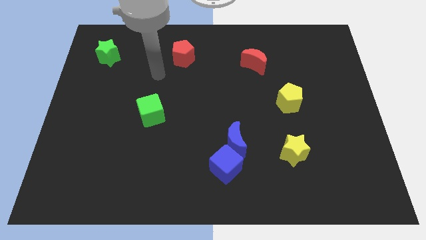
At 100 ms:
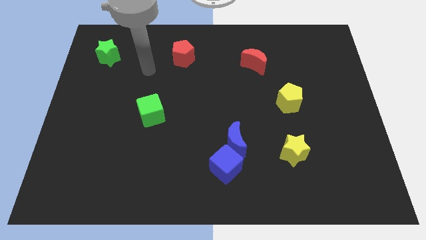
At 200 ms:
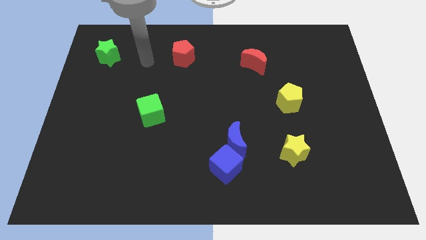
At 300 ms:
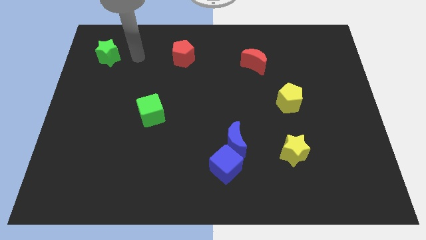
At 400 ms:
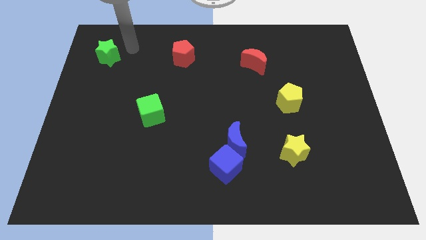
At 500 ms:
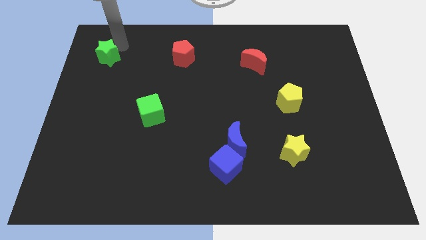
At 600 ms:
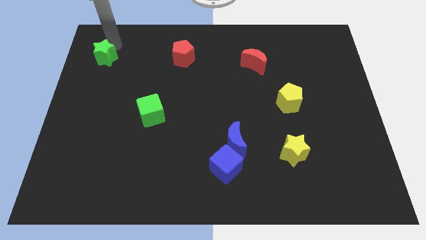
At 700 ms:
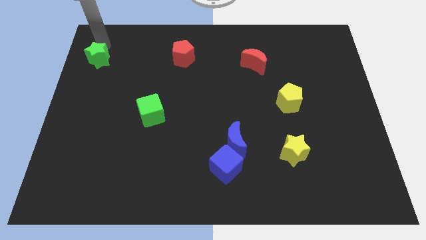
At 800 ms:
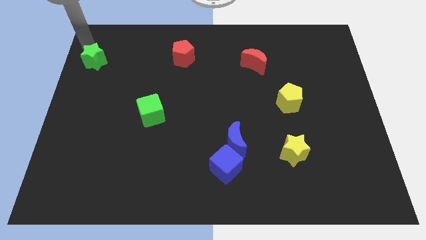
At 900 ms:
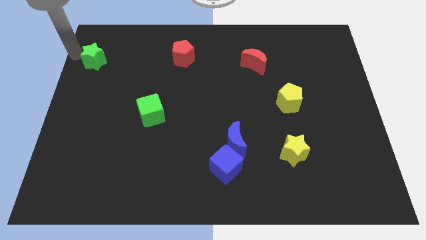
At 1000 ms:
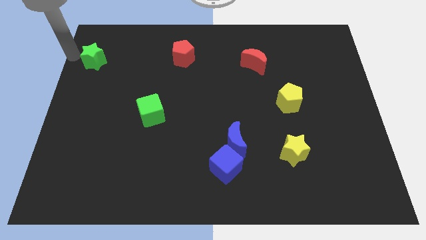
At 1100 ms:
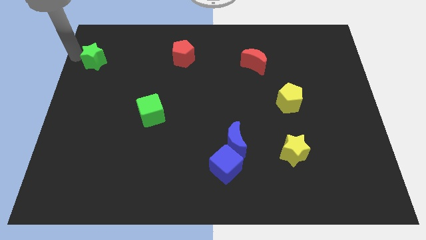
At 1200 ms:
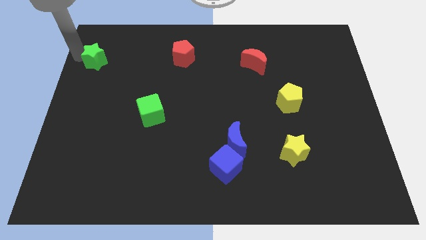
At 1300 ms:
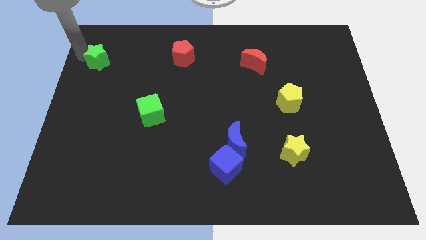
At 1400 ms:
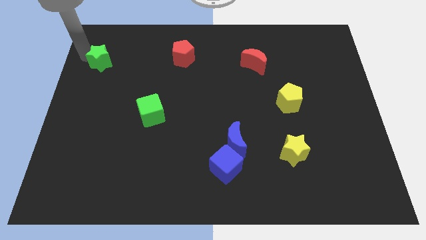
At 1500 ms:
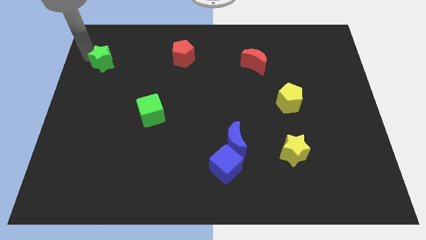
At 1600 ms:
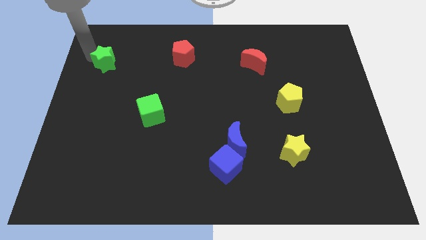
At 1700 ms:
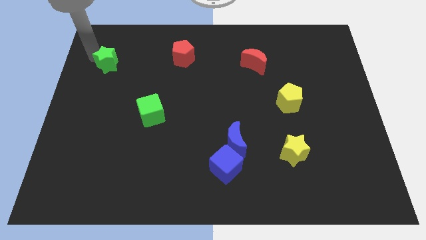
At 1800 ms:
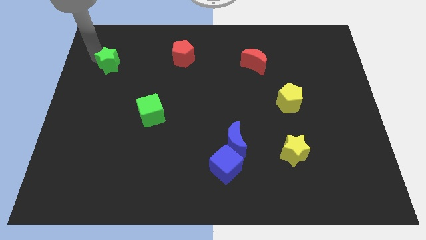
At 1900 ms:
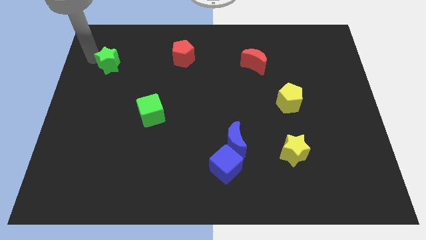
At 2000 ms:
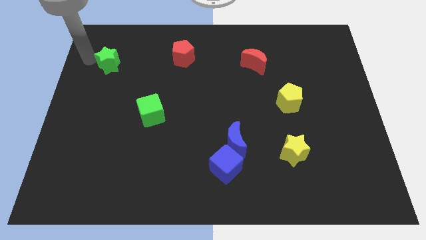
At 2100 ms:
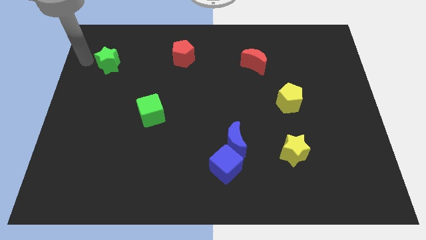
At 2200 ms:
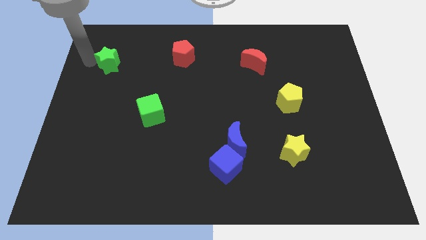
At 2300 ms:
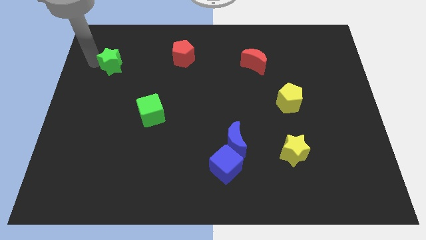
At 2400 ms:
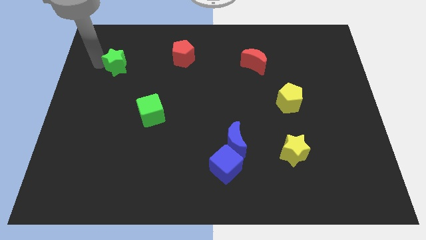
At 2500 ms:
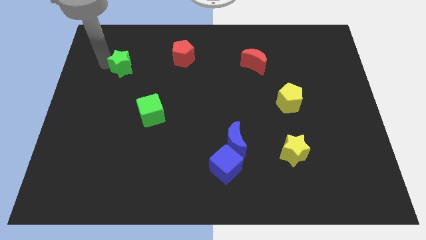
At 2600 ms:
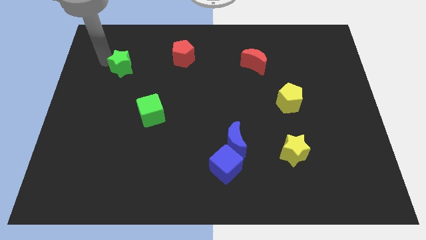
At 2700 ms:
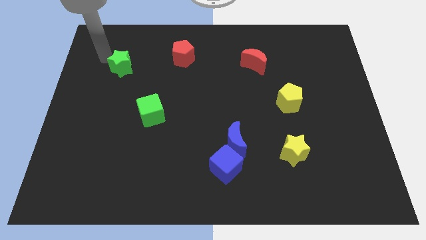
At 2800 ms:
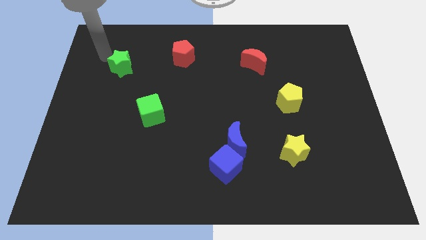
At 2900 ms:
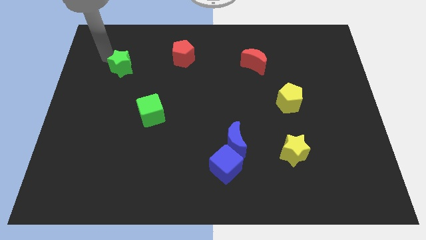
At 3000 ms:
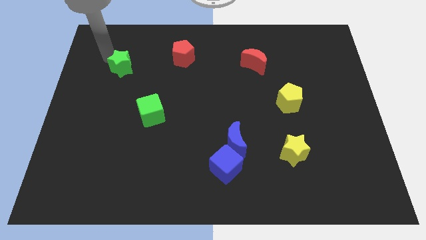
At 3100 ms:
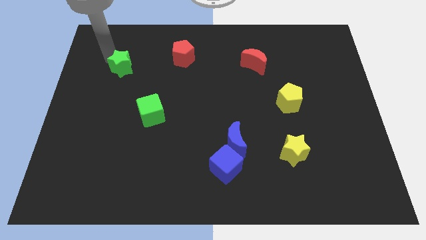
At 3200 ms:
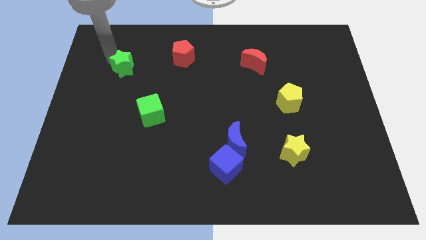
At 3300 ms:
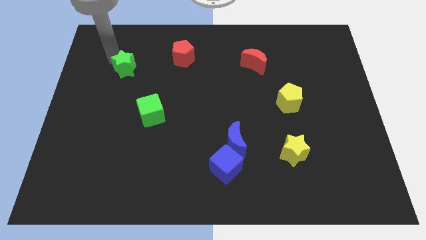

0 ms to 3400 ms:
slide the green star a little diagonally down and to the right

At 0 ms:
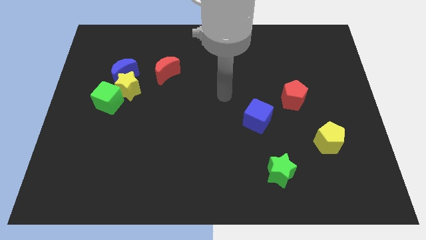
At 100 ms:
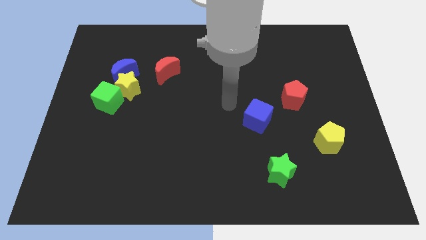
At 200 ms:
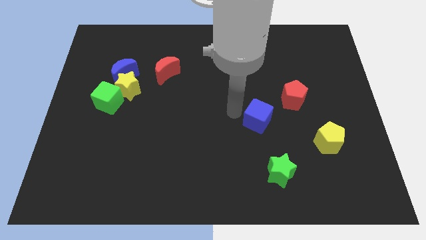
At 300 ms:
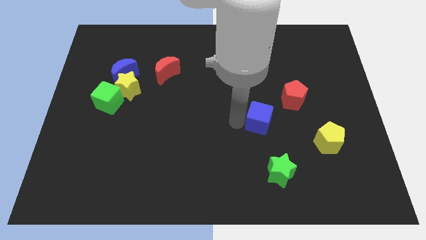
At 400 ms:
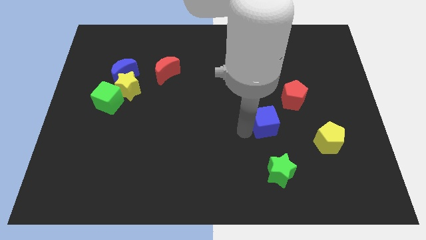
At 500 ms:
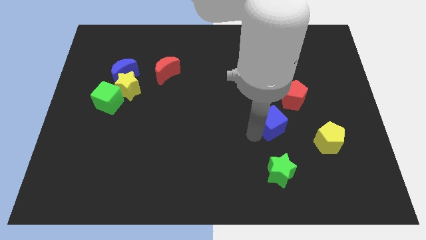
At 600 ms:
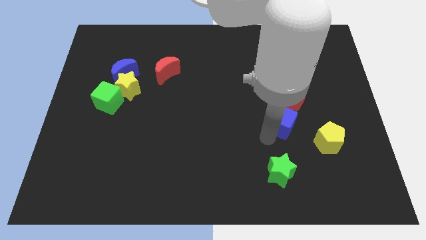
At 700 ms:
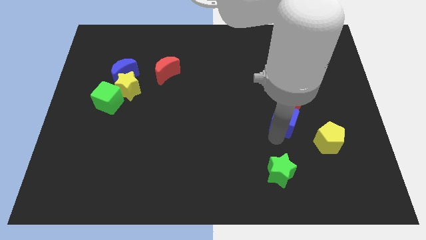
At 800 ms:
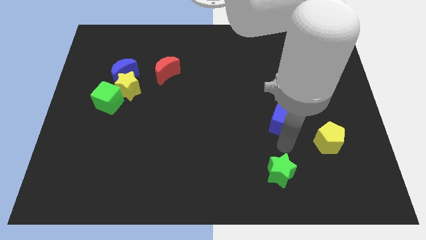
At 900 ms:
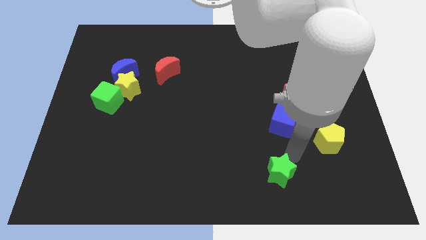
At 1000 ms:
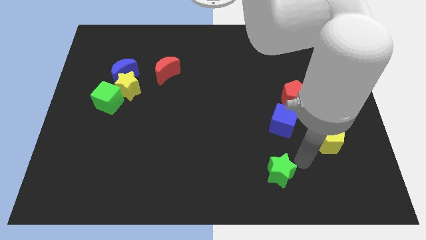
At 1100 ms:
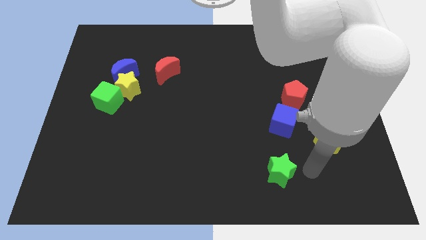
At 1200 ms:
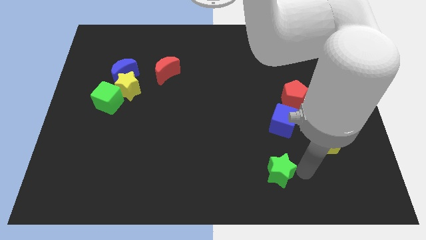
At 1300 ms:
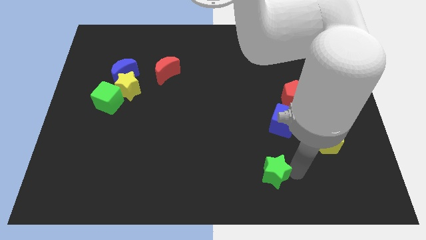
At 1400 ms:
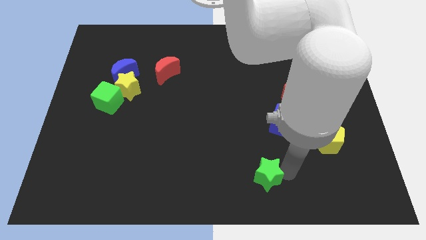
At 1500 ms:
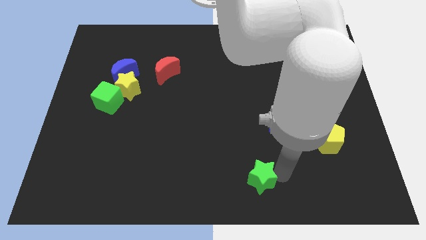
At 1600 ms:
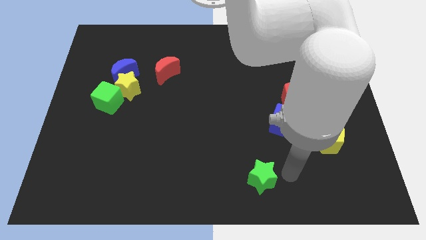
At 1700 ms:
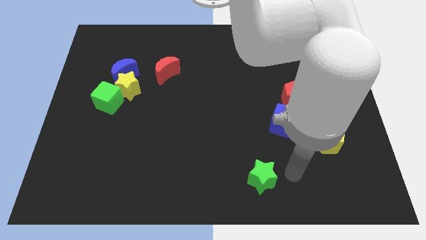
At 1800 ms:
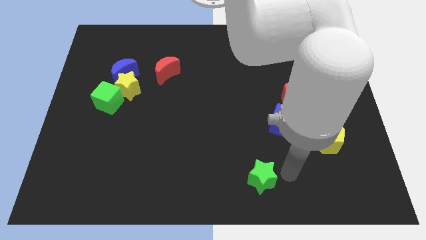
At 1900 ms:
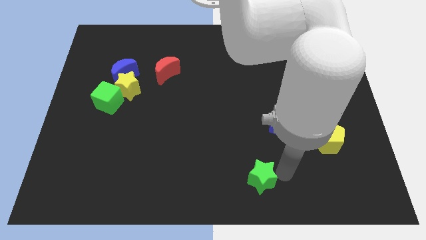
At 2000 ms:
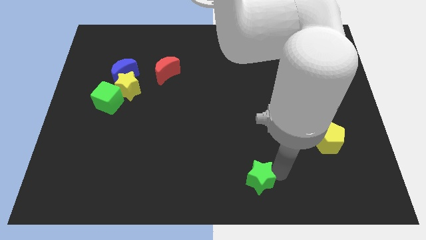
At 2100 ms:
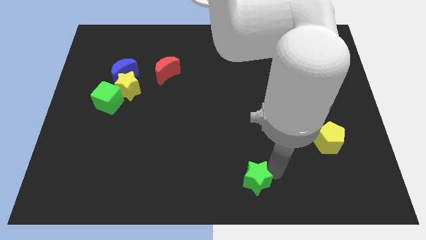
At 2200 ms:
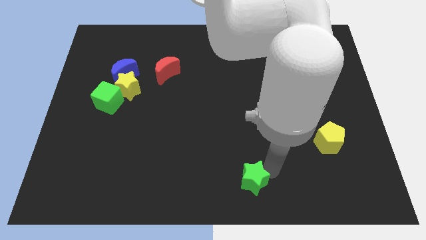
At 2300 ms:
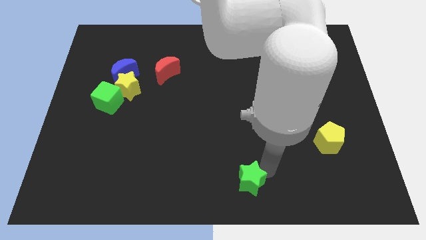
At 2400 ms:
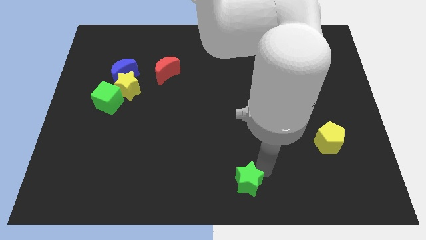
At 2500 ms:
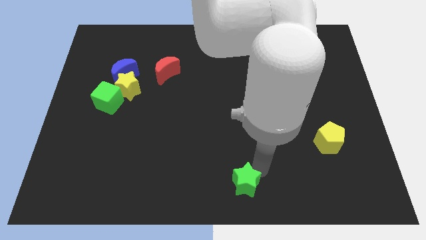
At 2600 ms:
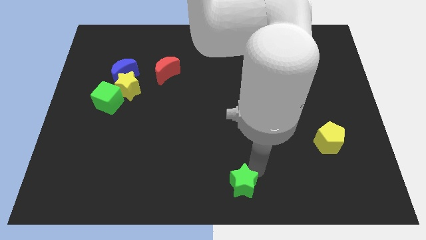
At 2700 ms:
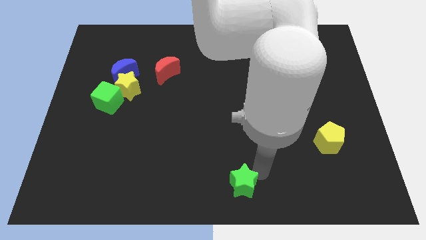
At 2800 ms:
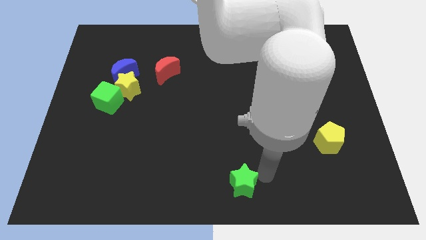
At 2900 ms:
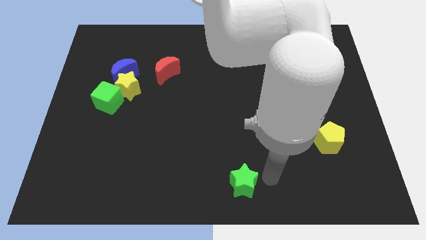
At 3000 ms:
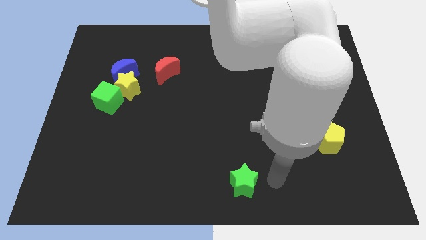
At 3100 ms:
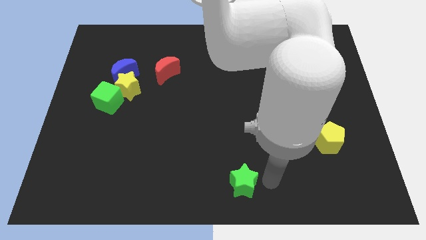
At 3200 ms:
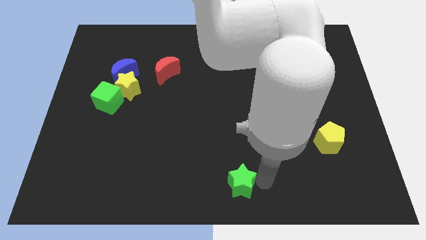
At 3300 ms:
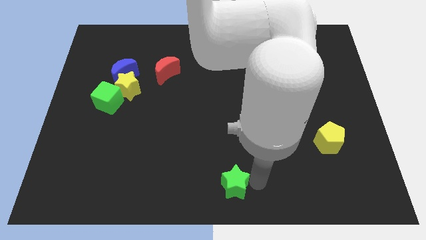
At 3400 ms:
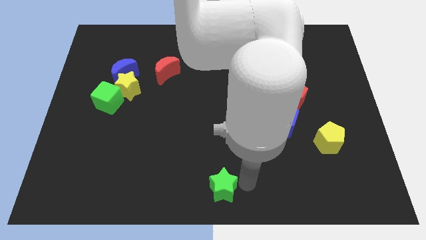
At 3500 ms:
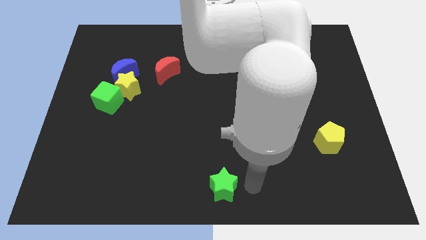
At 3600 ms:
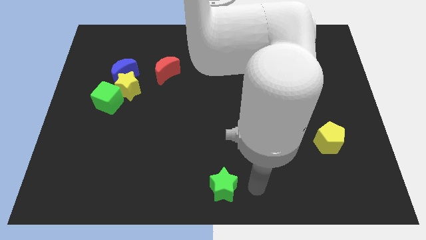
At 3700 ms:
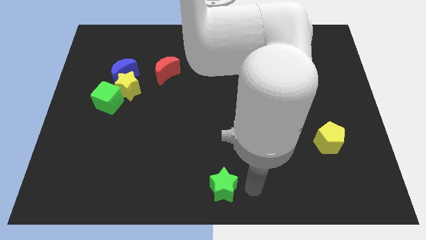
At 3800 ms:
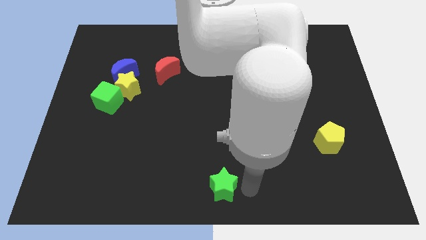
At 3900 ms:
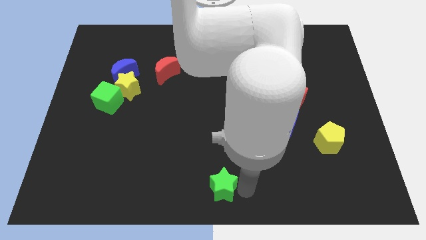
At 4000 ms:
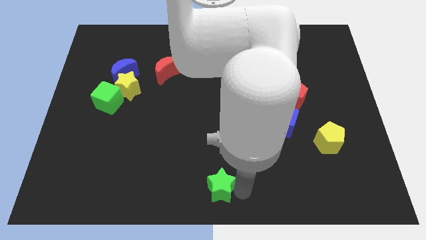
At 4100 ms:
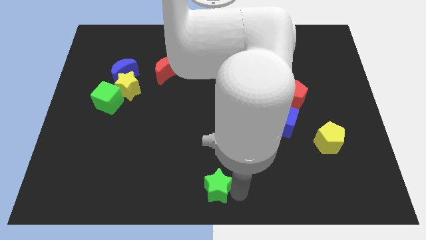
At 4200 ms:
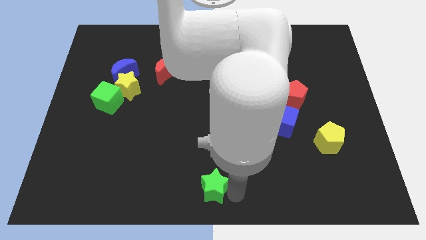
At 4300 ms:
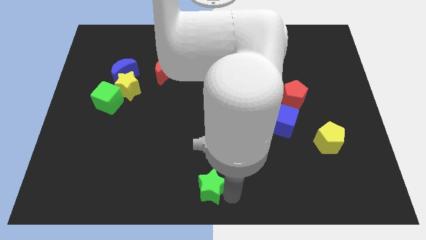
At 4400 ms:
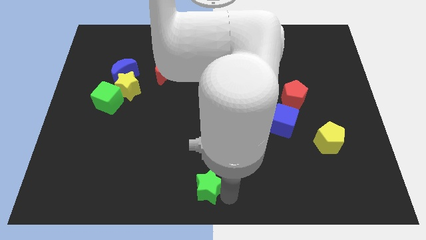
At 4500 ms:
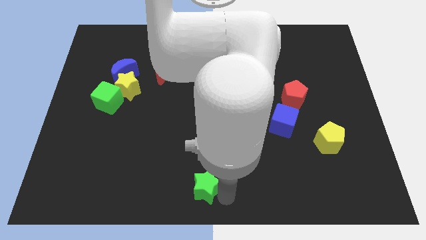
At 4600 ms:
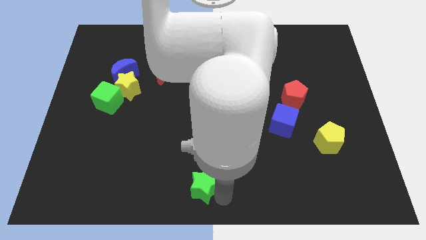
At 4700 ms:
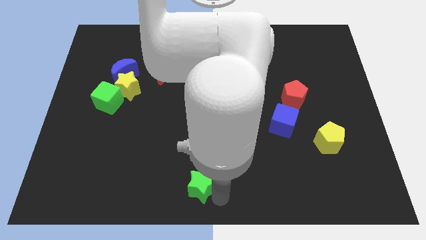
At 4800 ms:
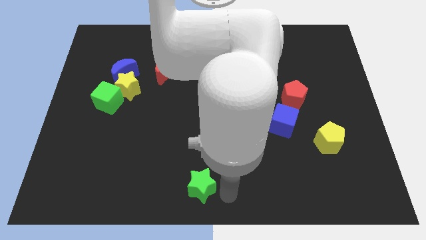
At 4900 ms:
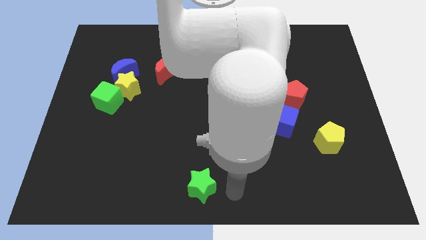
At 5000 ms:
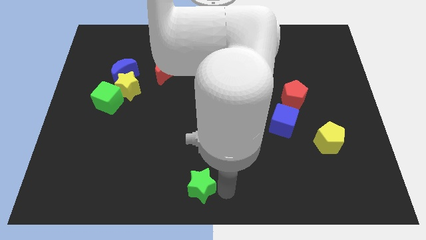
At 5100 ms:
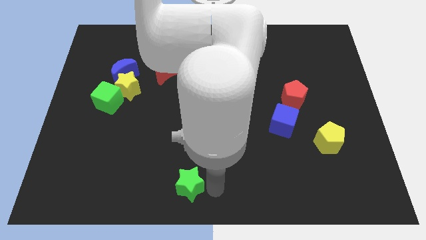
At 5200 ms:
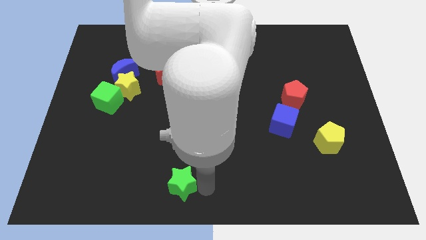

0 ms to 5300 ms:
push the green star to the left

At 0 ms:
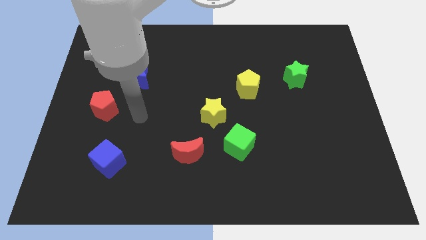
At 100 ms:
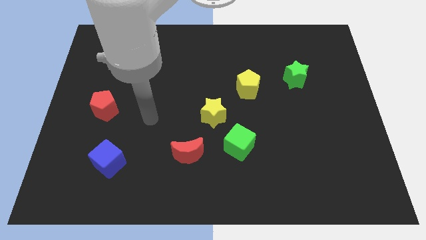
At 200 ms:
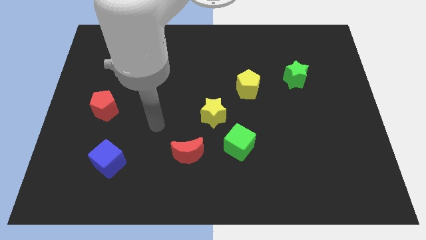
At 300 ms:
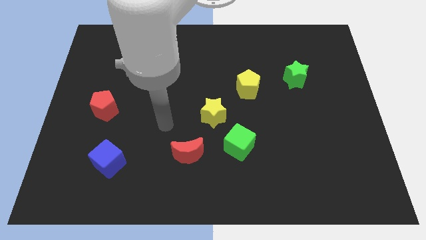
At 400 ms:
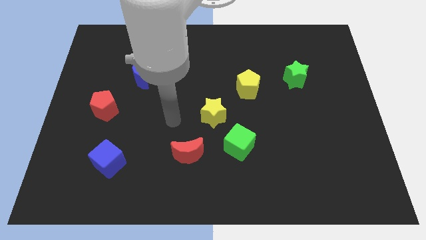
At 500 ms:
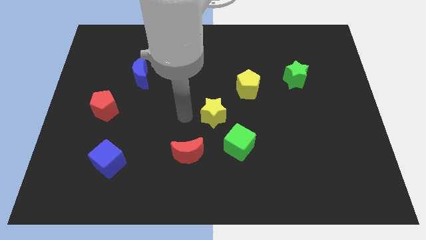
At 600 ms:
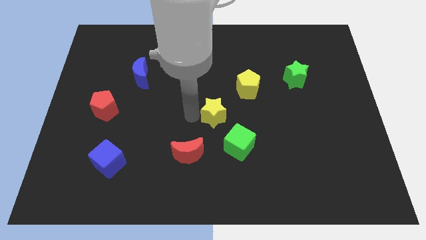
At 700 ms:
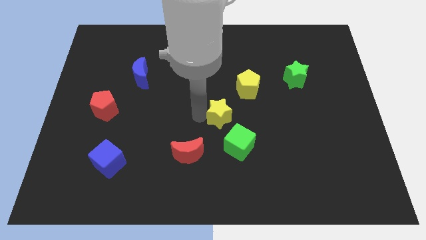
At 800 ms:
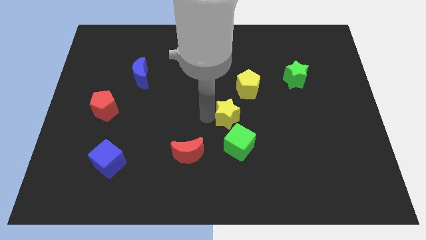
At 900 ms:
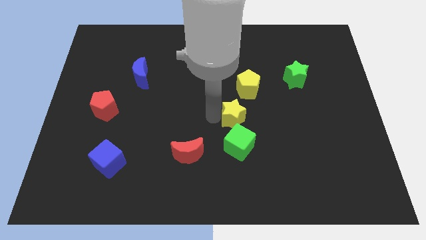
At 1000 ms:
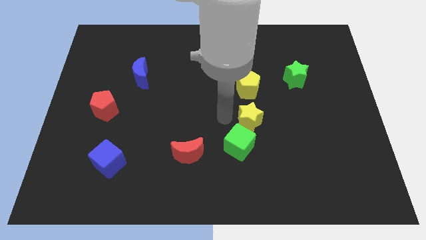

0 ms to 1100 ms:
move the yellow star to the right a bit
